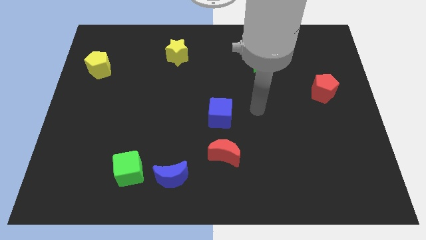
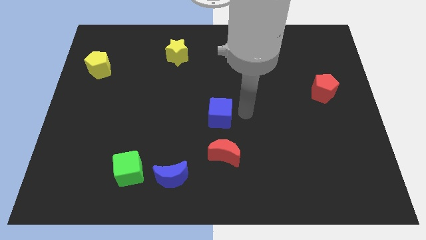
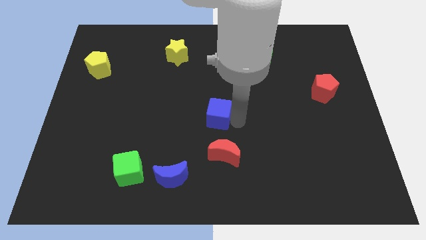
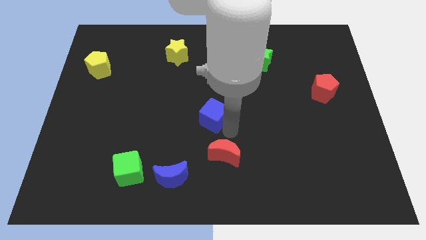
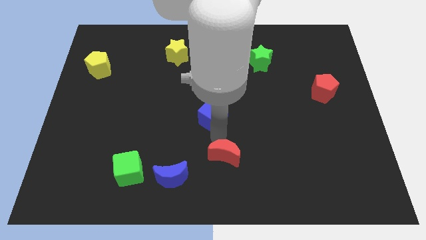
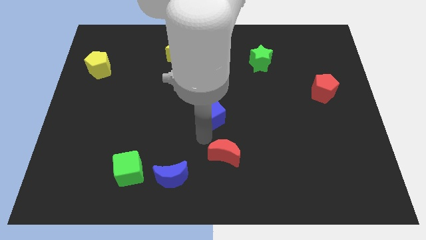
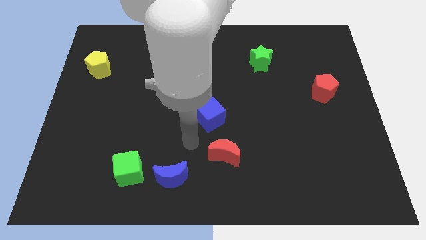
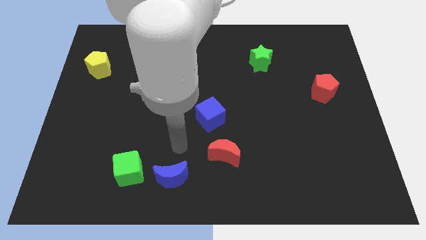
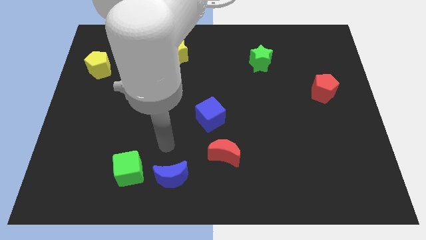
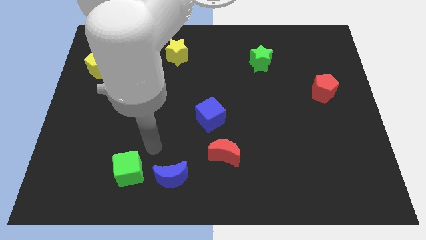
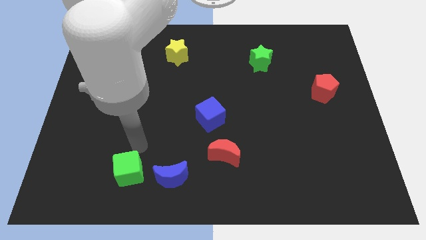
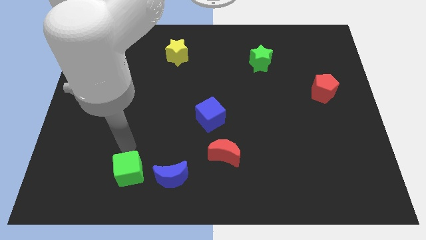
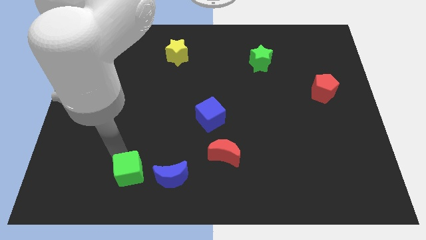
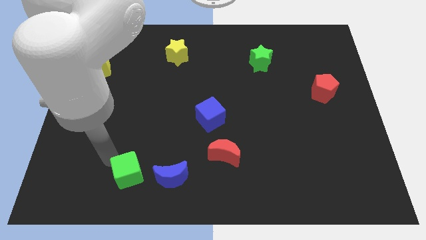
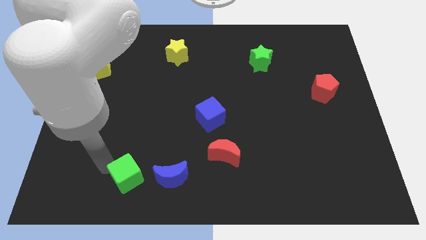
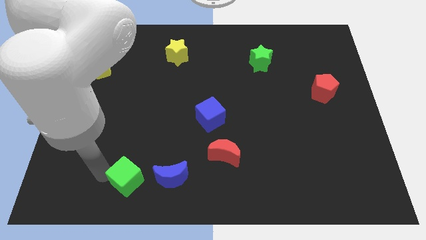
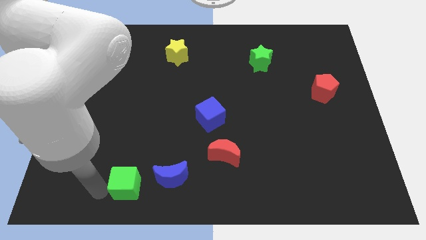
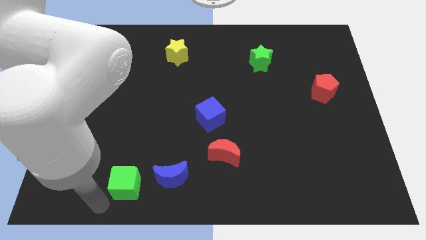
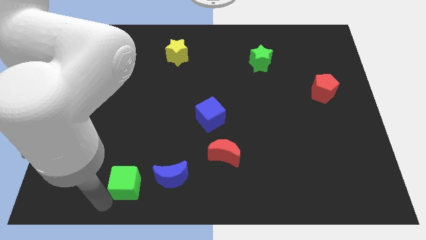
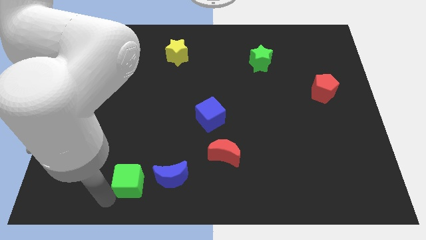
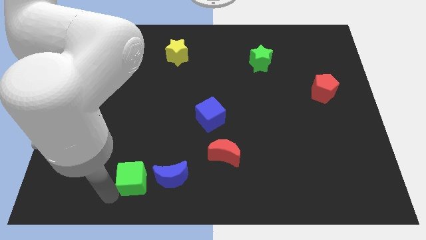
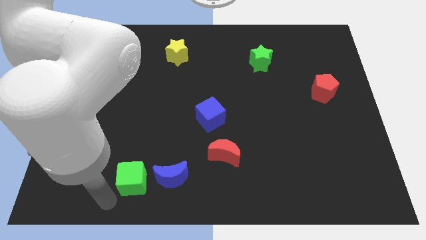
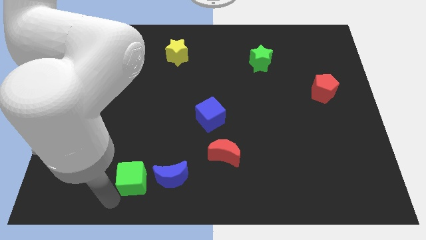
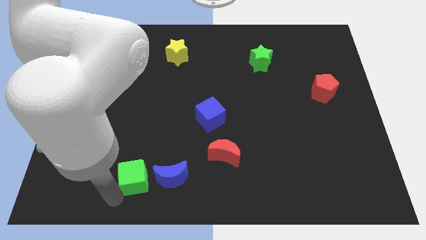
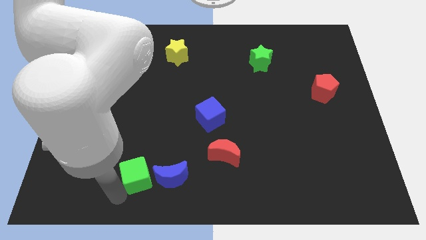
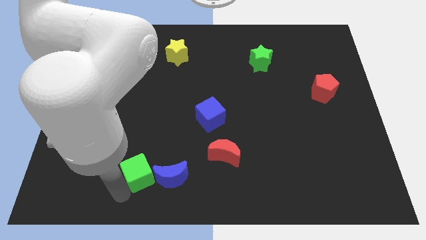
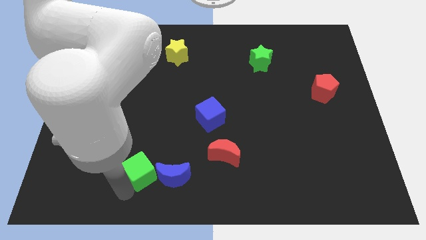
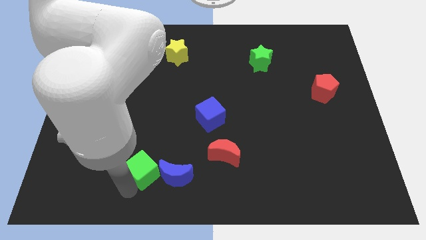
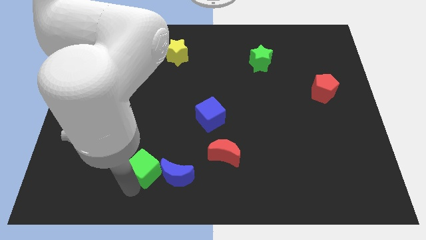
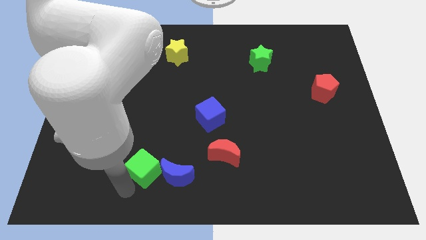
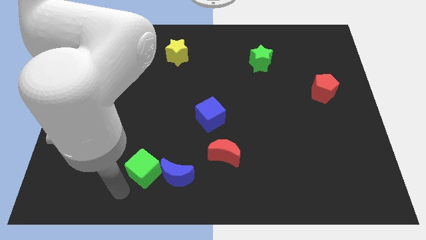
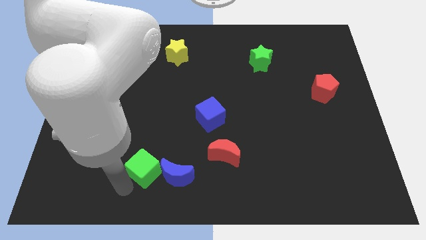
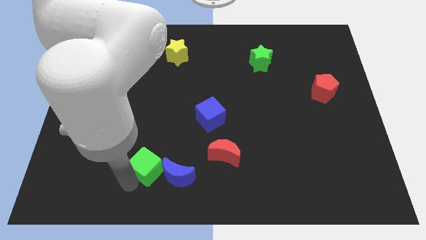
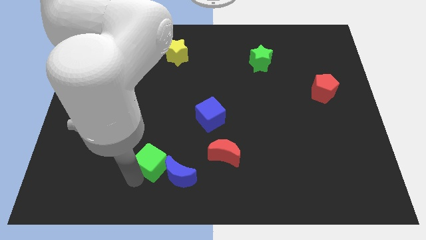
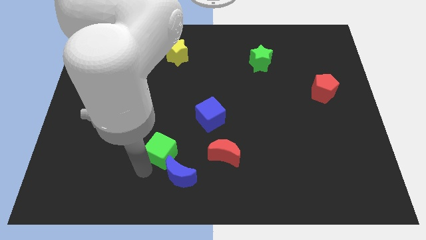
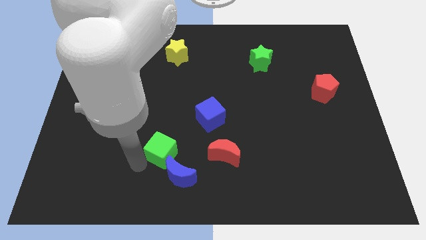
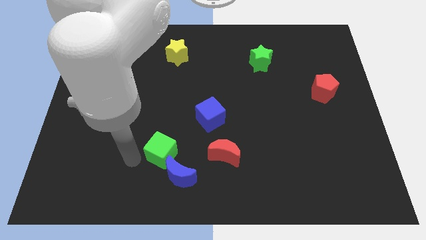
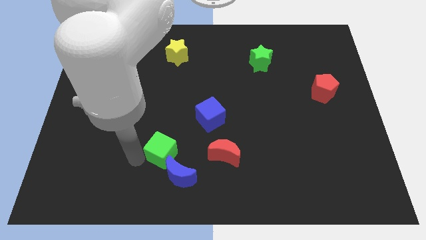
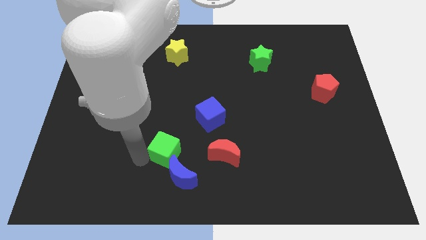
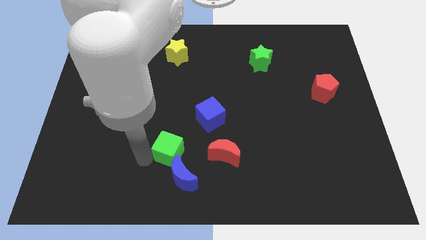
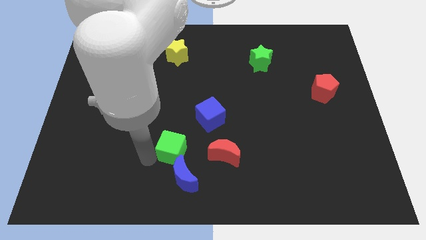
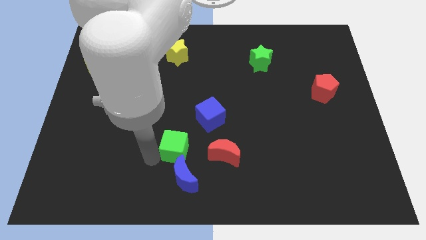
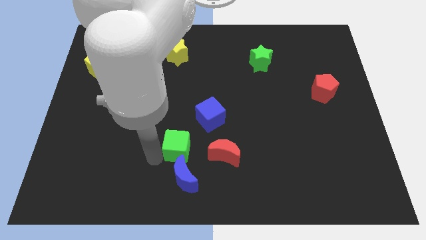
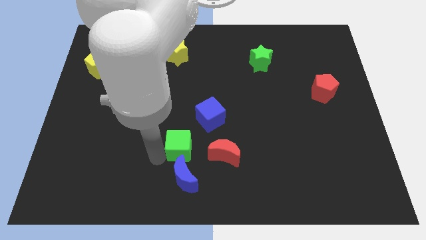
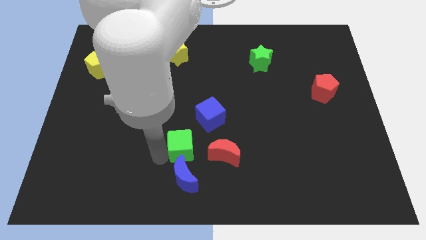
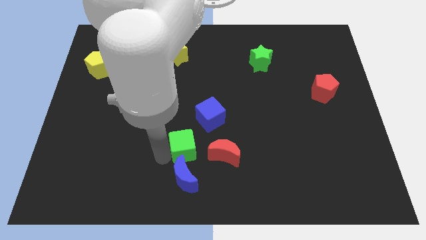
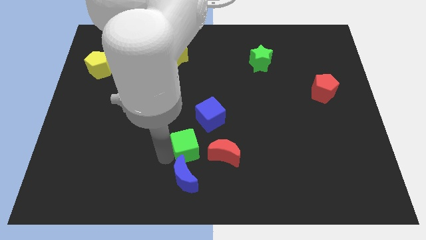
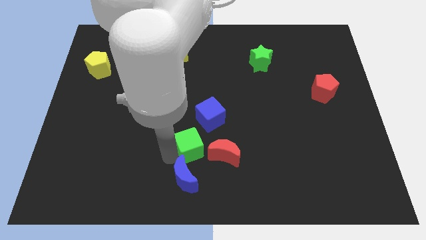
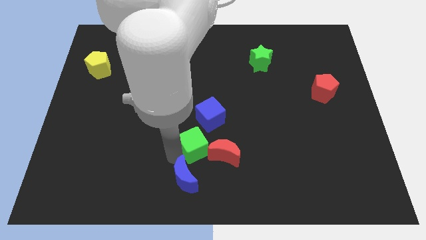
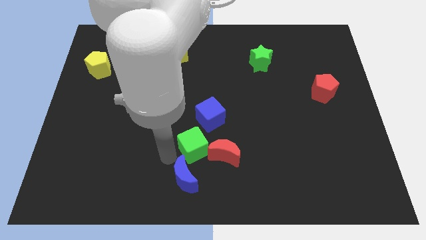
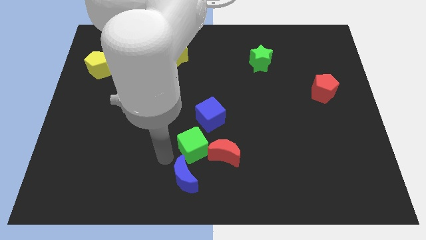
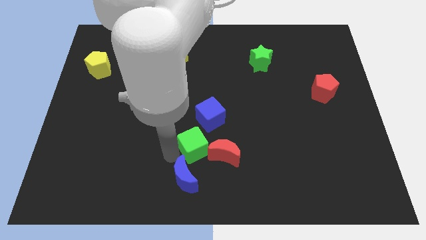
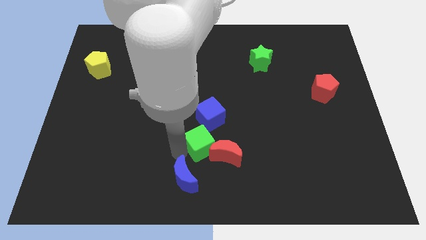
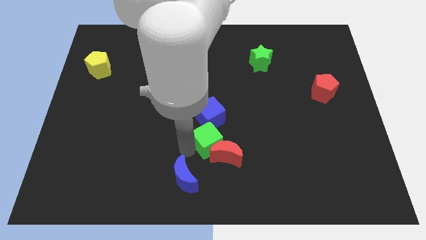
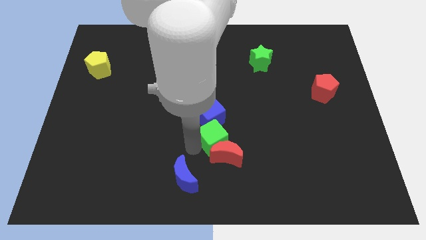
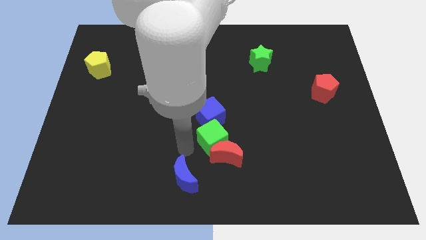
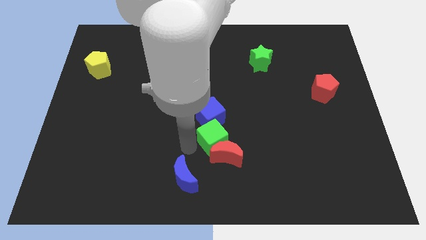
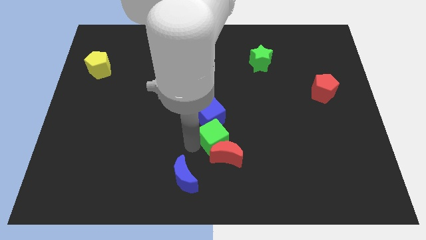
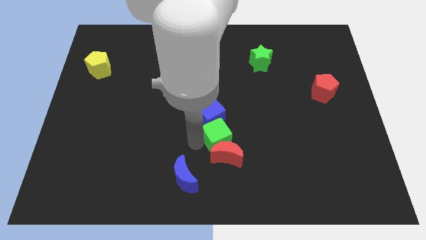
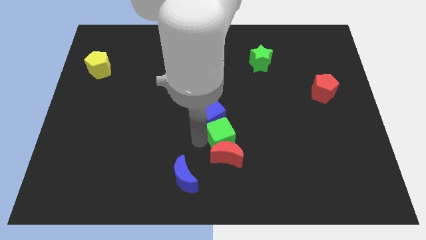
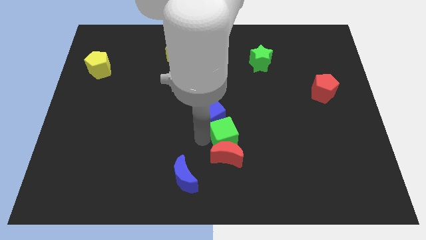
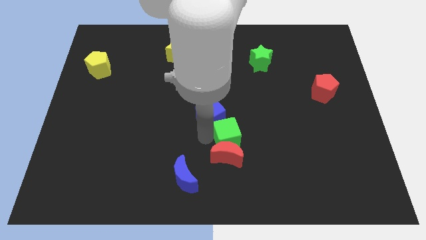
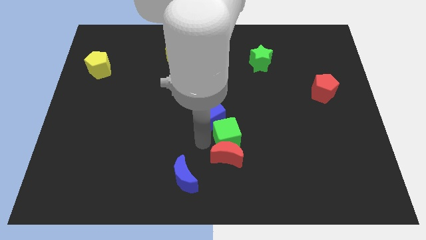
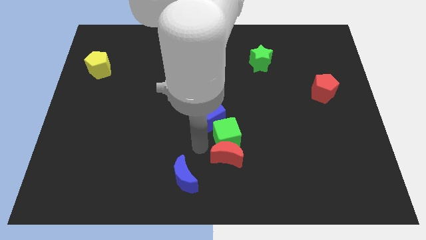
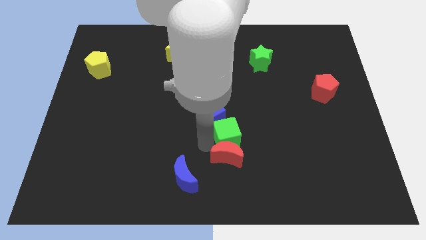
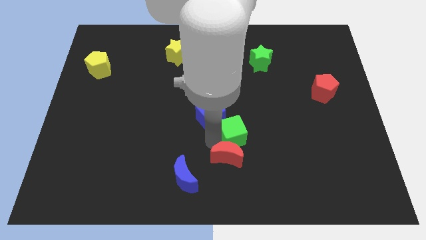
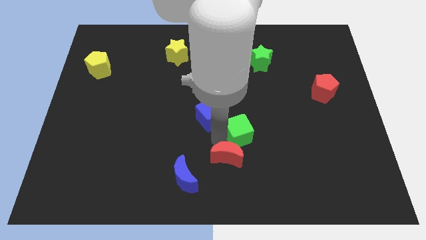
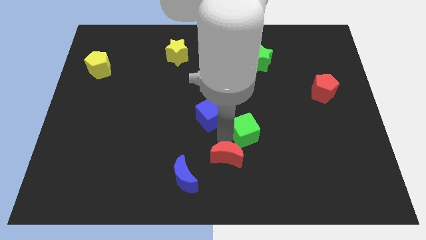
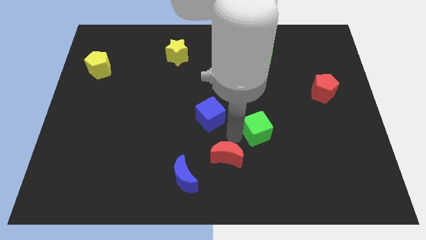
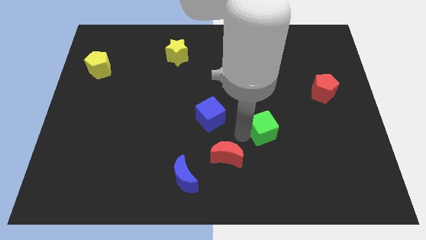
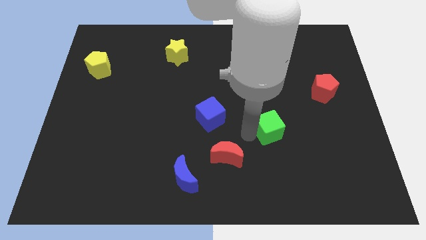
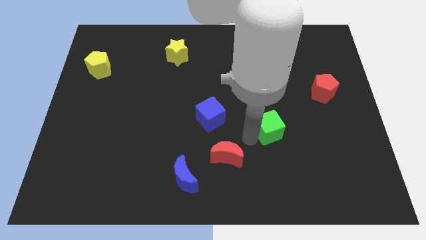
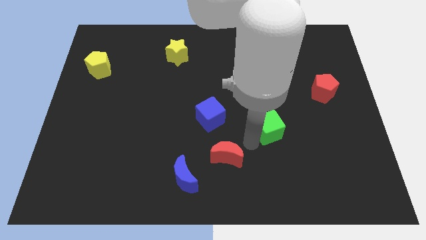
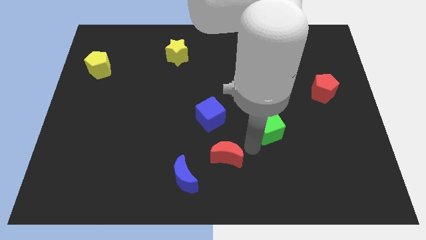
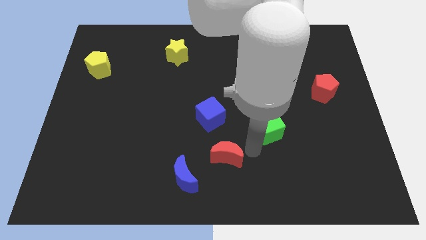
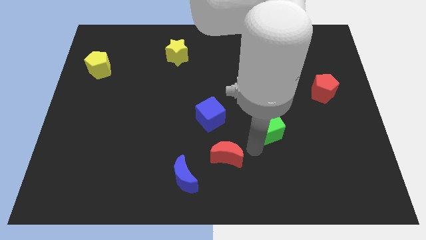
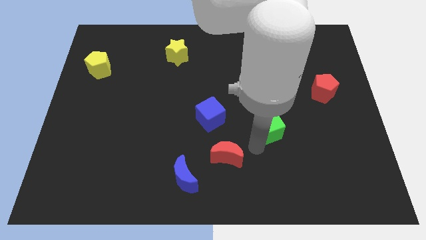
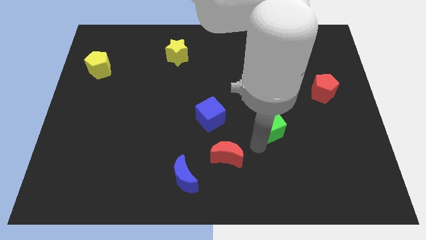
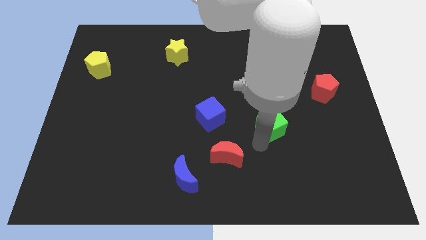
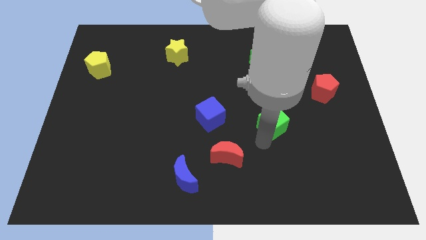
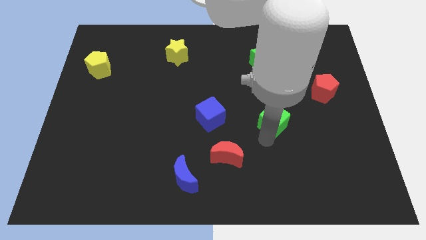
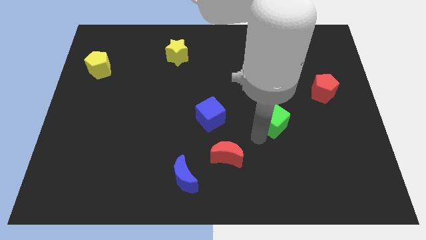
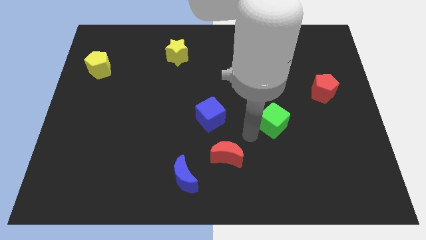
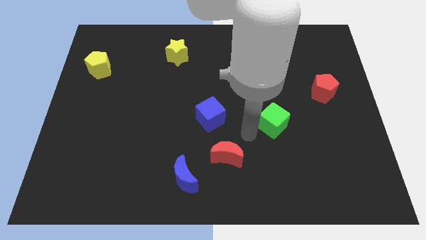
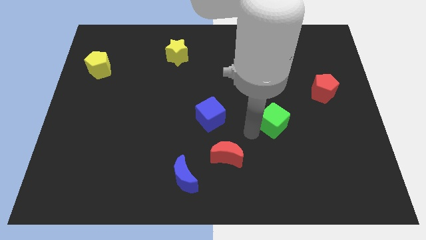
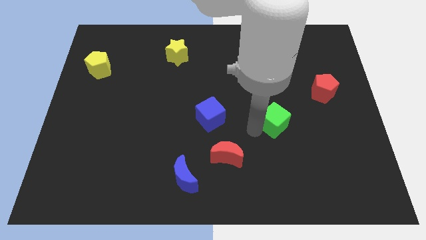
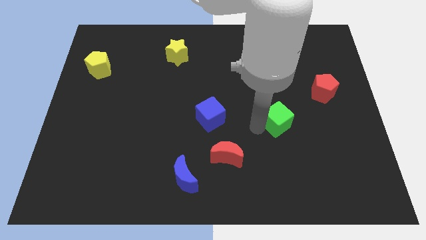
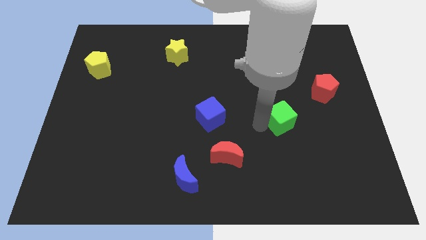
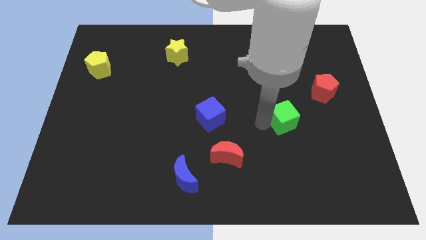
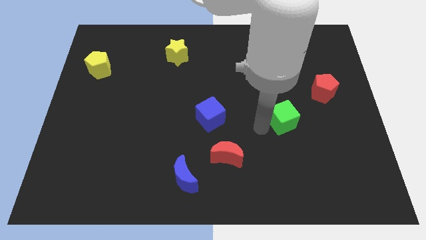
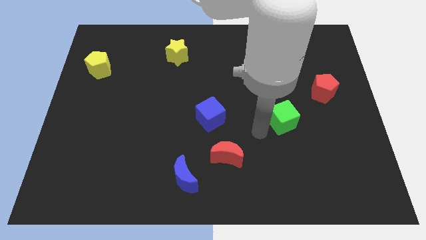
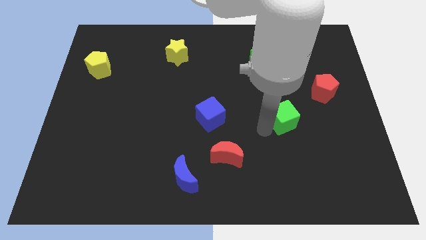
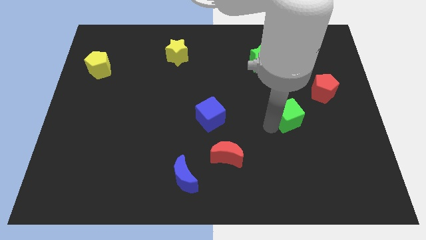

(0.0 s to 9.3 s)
put the green cube to the bottom left side of the red pentagon
